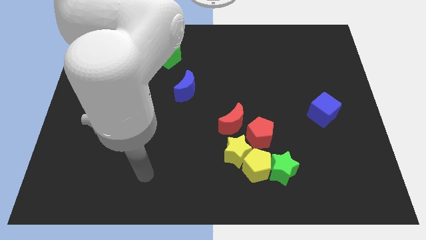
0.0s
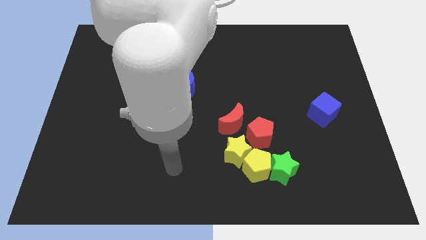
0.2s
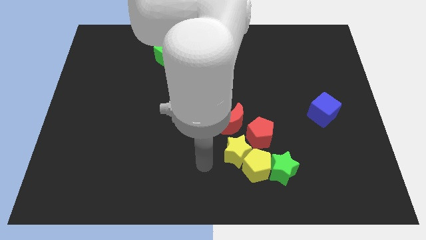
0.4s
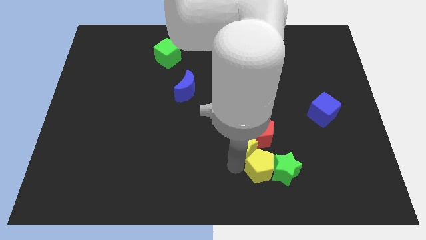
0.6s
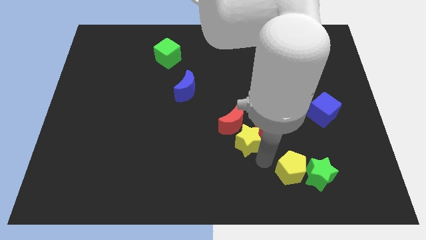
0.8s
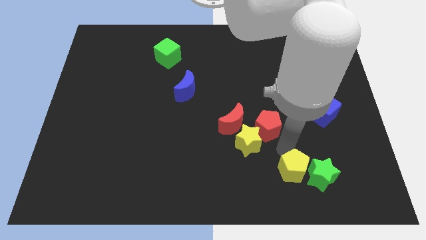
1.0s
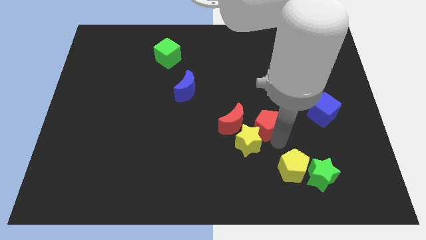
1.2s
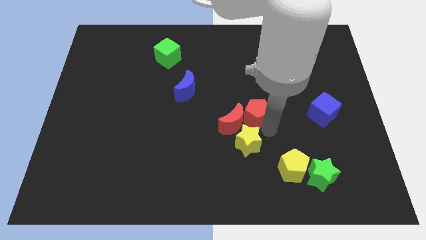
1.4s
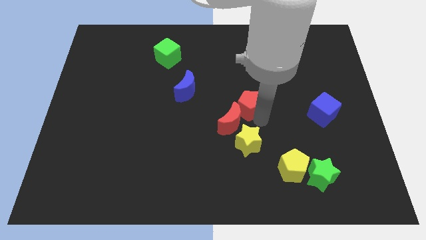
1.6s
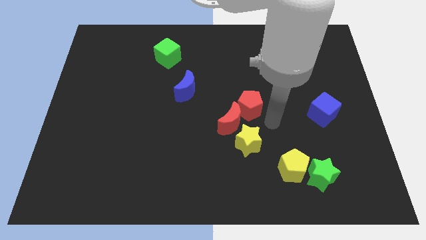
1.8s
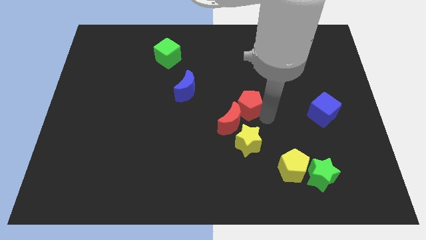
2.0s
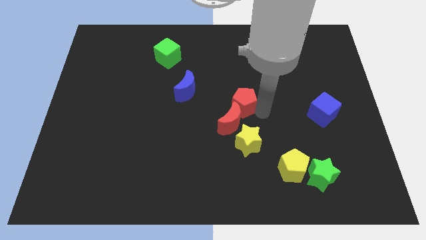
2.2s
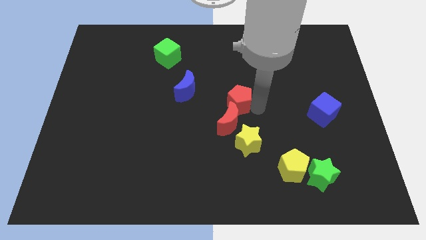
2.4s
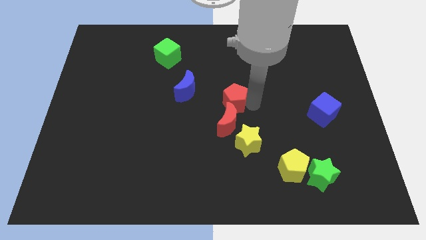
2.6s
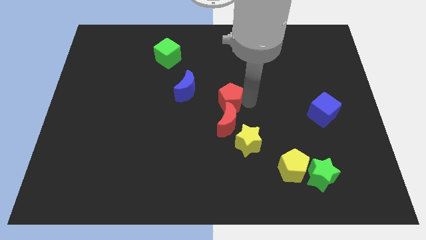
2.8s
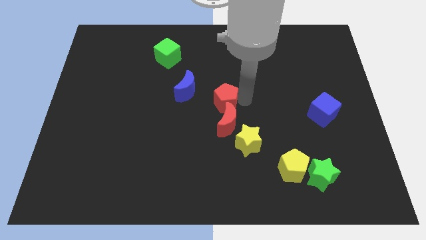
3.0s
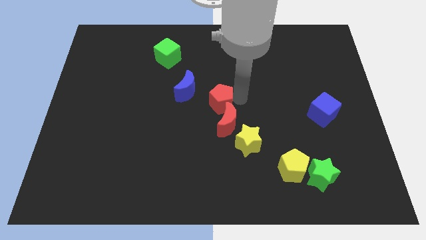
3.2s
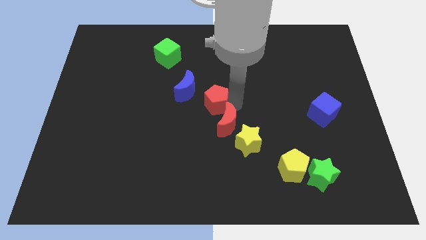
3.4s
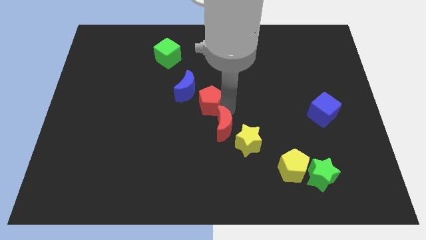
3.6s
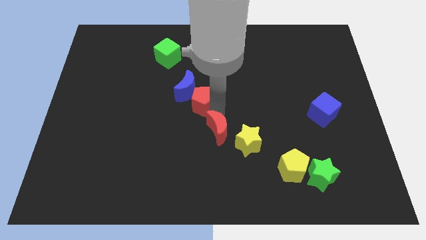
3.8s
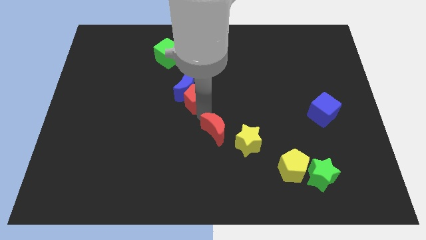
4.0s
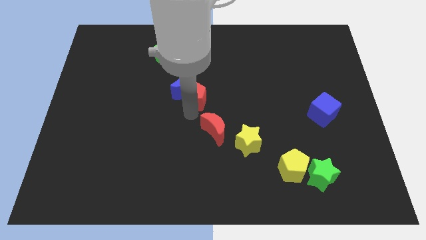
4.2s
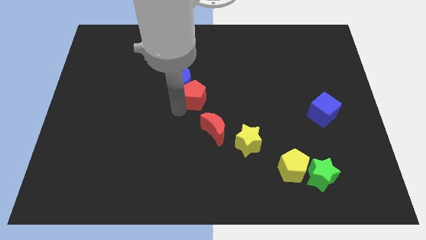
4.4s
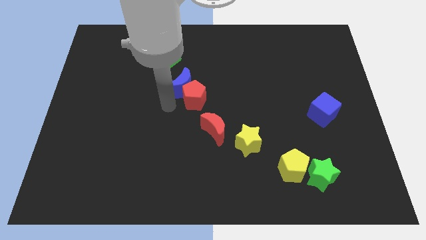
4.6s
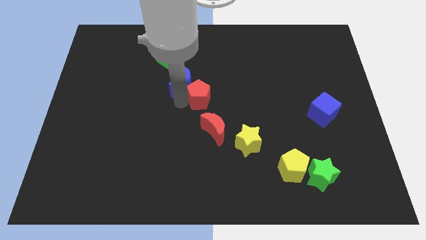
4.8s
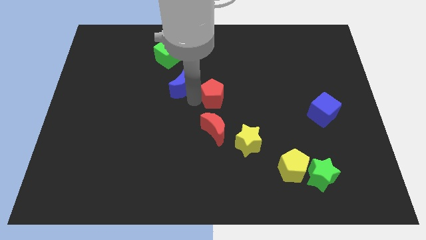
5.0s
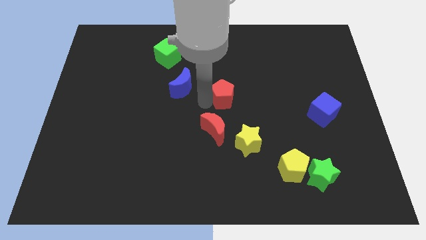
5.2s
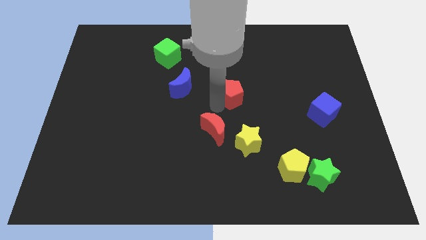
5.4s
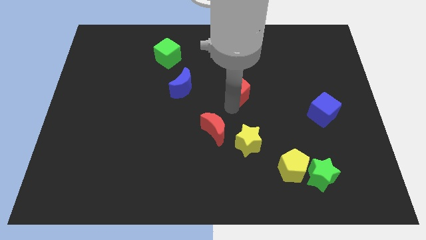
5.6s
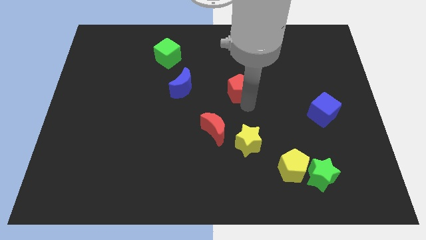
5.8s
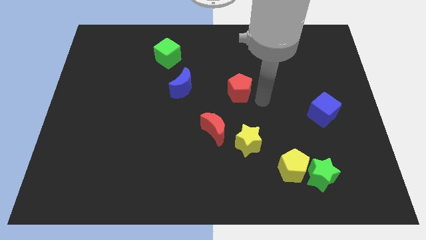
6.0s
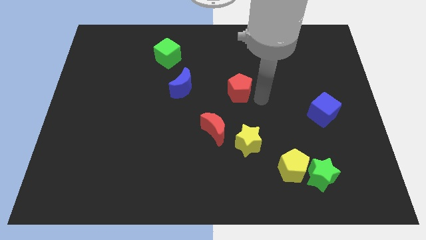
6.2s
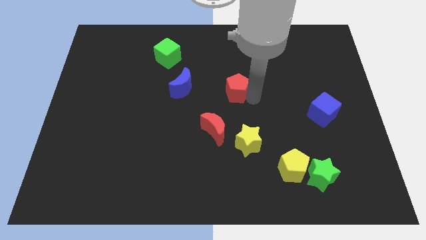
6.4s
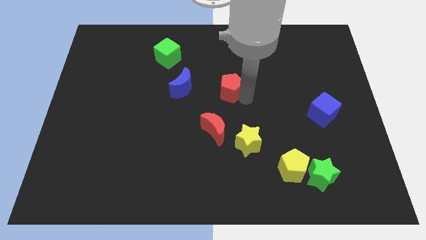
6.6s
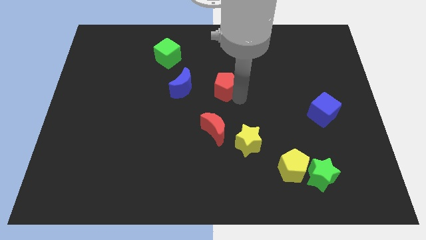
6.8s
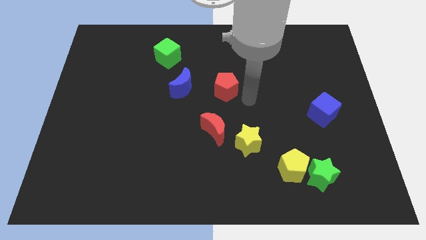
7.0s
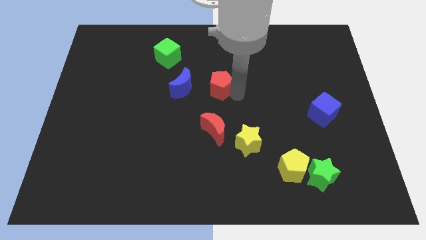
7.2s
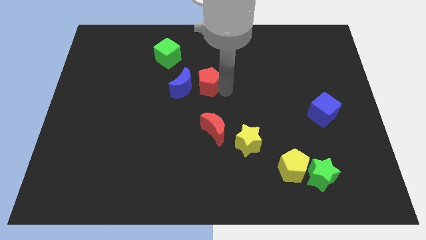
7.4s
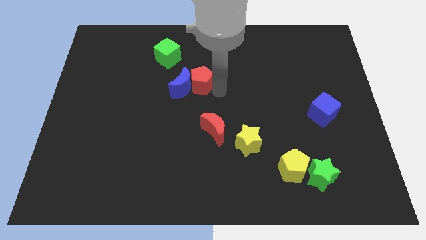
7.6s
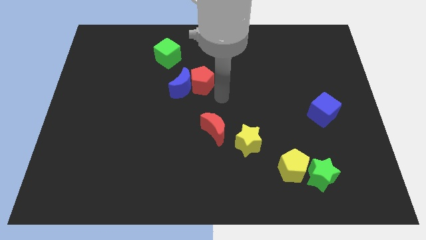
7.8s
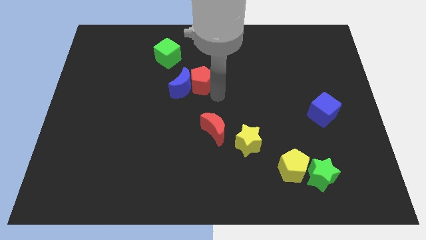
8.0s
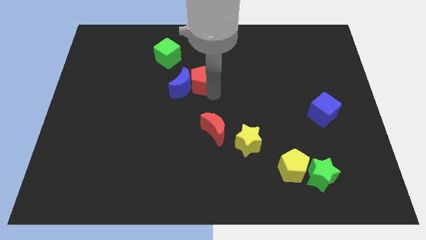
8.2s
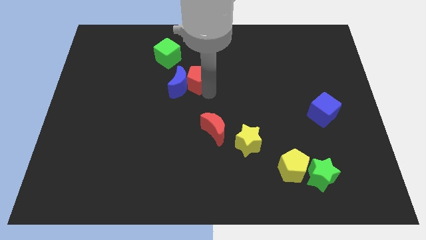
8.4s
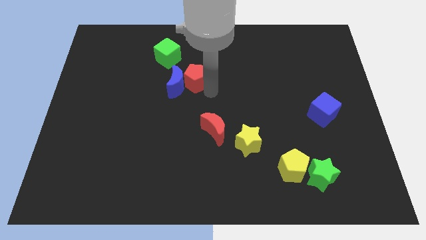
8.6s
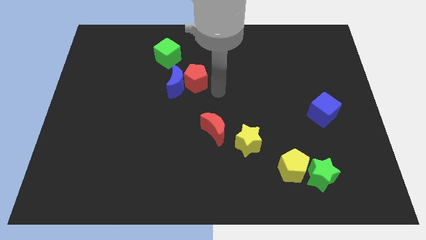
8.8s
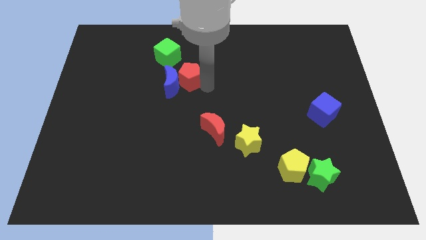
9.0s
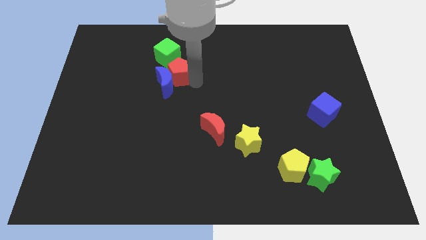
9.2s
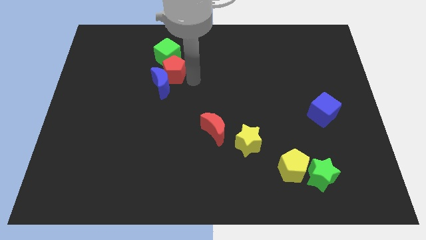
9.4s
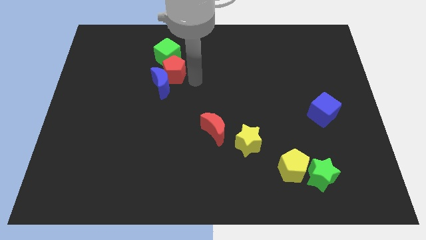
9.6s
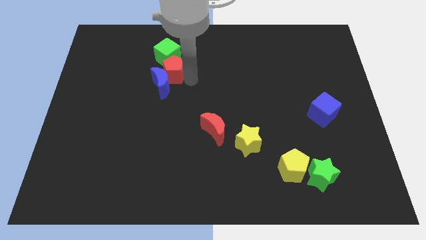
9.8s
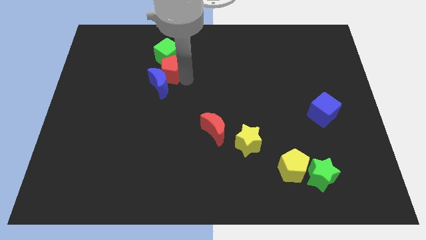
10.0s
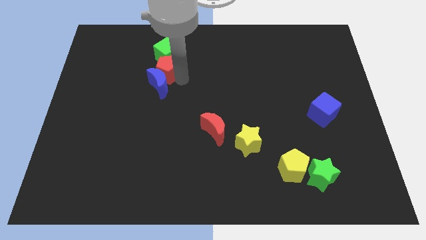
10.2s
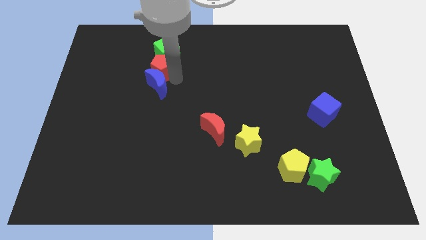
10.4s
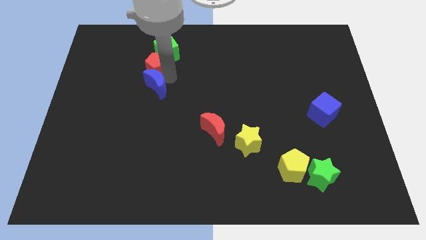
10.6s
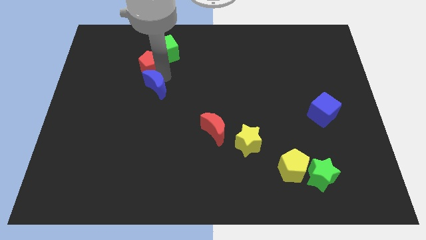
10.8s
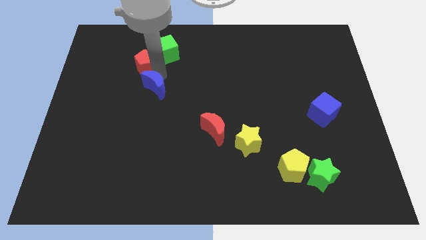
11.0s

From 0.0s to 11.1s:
put the red pentagon to the left side of the green cube

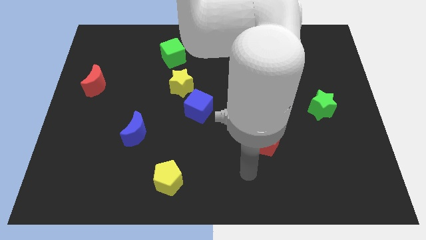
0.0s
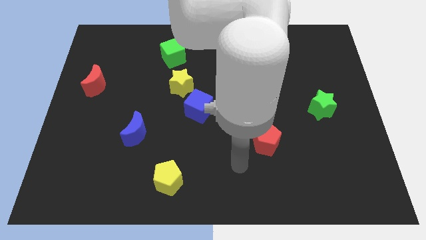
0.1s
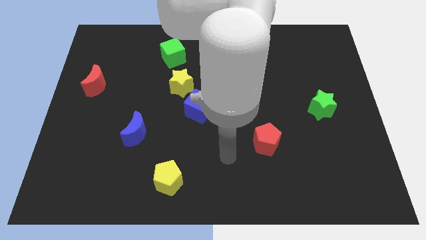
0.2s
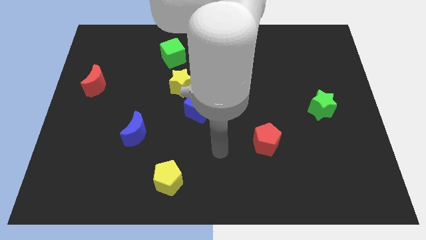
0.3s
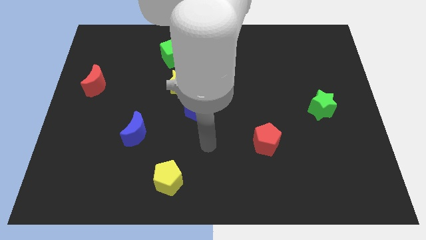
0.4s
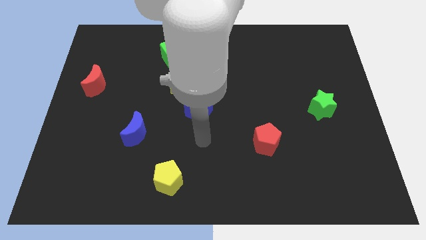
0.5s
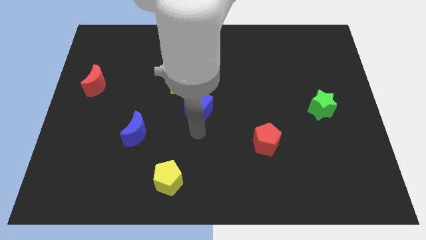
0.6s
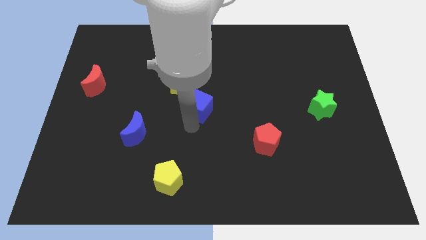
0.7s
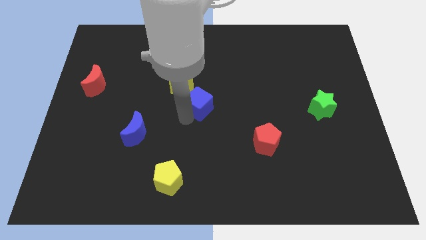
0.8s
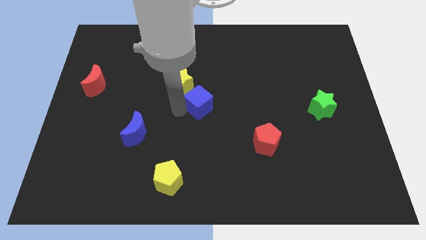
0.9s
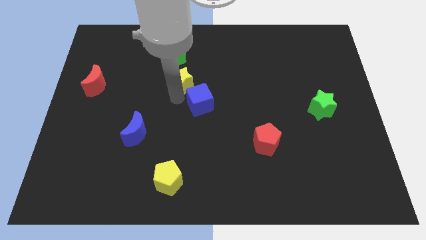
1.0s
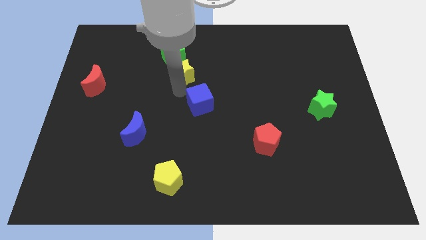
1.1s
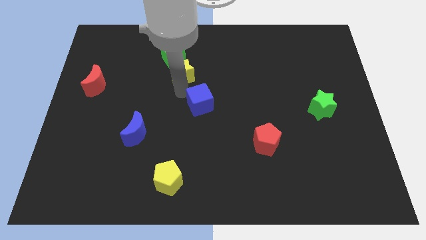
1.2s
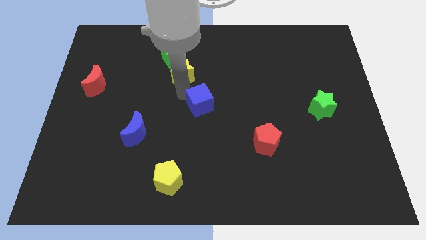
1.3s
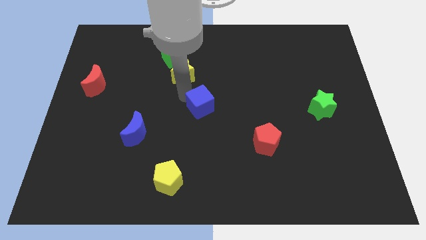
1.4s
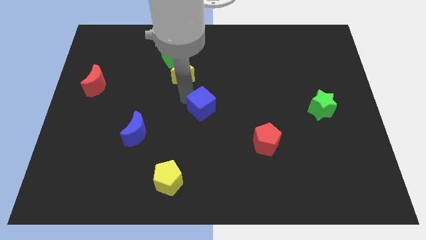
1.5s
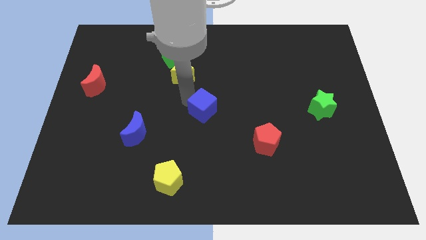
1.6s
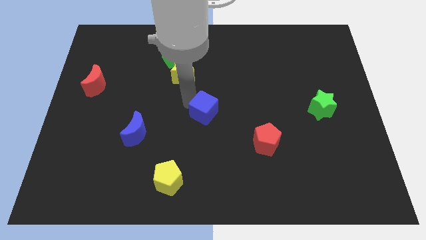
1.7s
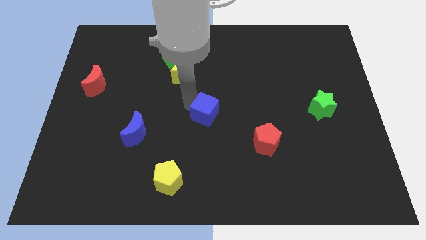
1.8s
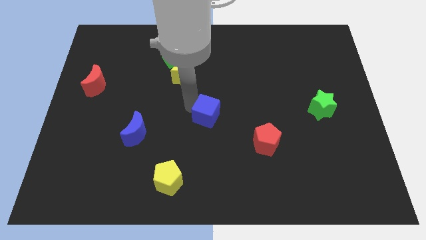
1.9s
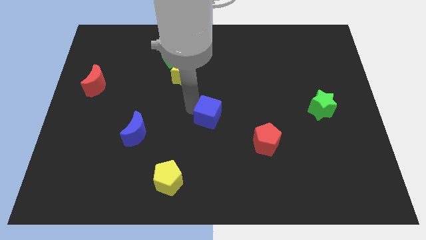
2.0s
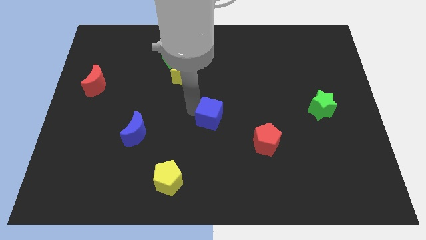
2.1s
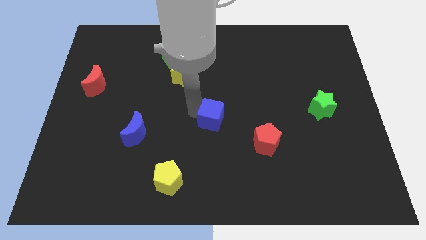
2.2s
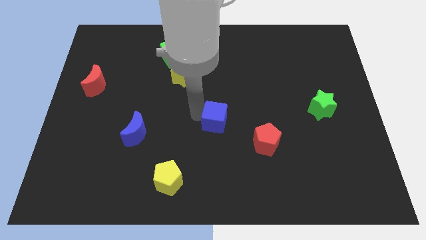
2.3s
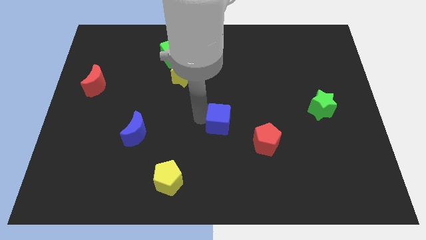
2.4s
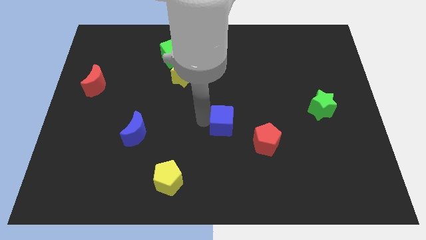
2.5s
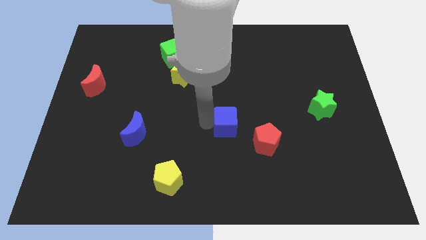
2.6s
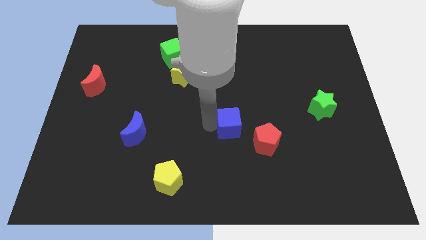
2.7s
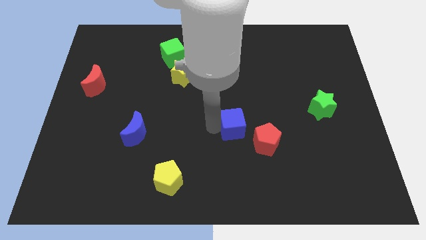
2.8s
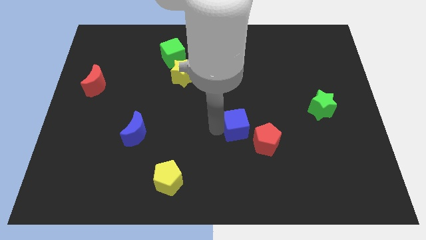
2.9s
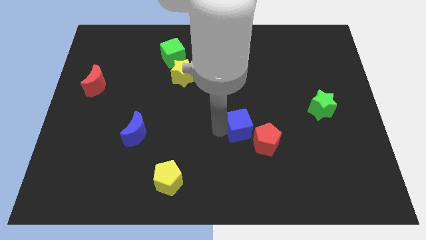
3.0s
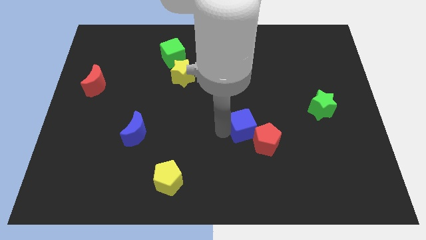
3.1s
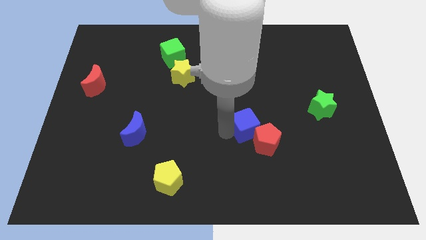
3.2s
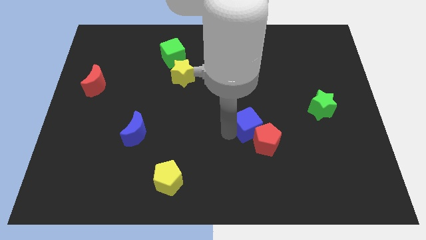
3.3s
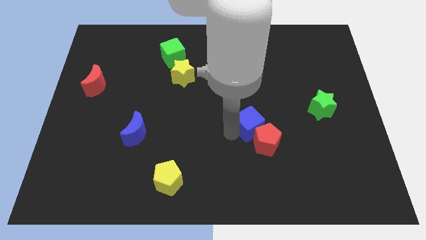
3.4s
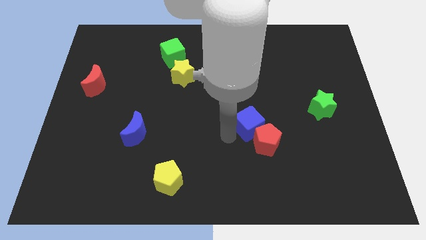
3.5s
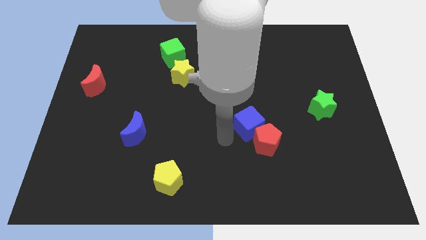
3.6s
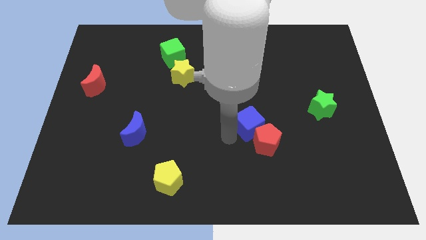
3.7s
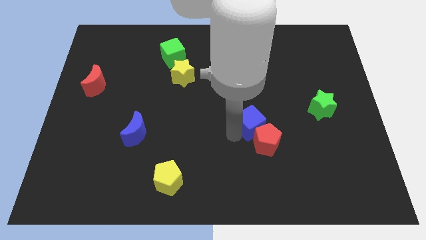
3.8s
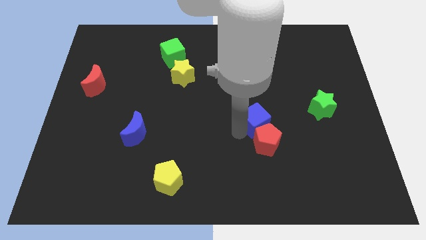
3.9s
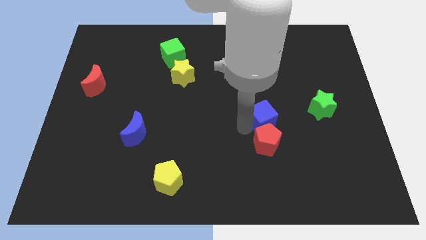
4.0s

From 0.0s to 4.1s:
push the blue cube diagonally up and to the right of the red pentagon
